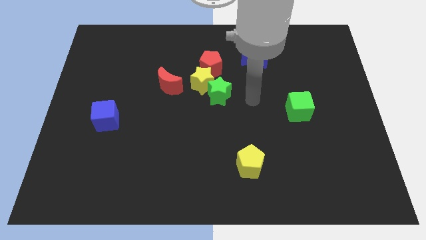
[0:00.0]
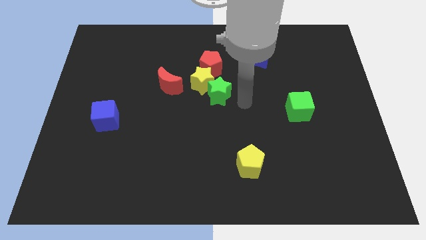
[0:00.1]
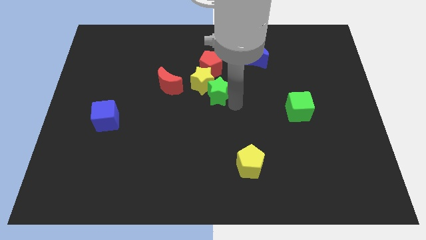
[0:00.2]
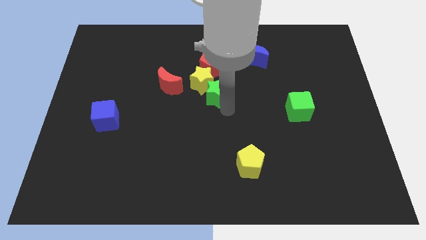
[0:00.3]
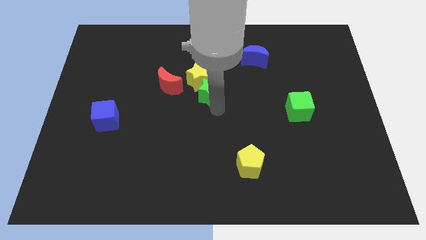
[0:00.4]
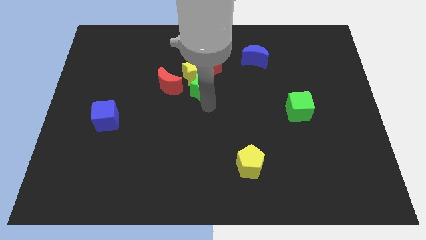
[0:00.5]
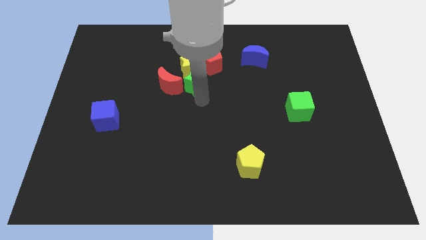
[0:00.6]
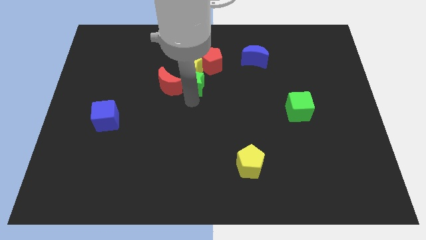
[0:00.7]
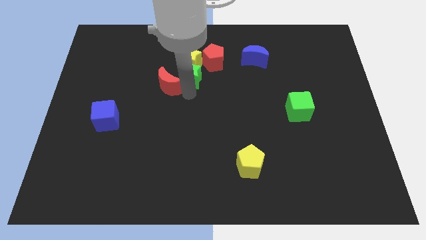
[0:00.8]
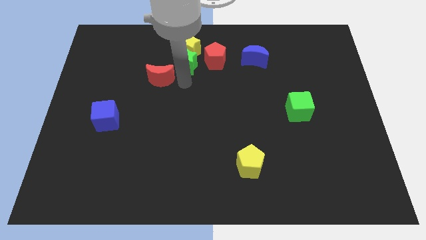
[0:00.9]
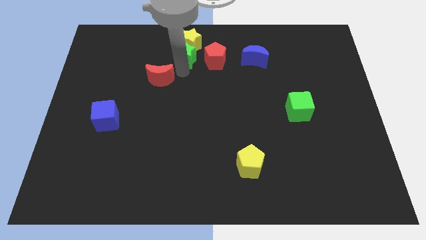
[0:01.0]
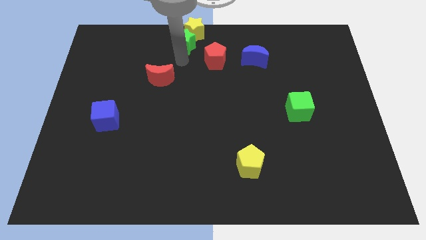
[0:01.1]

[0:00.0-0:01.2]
move the yellow star away from the clump

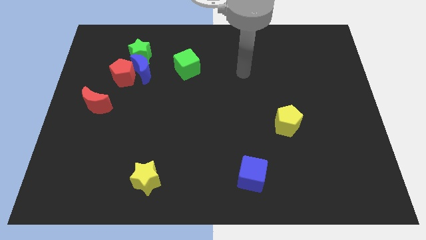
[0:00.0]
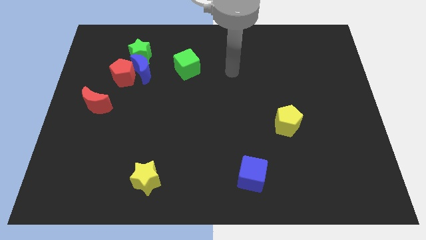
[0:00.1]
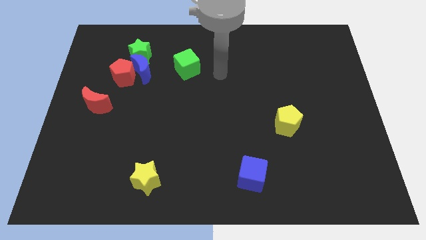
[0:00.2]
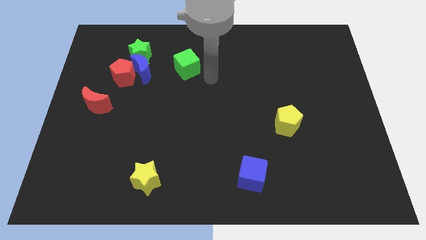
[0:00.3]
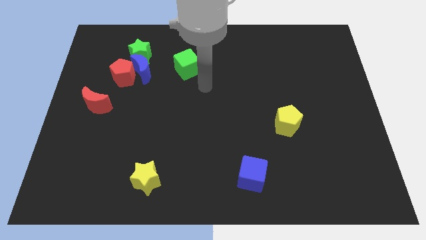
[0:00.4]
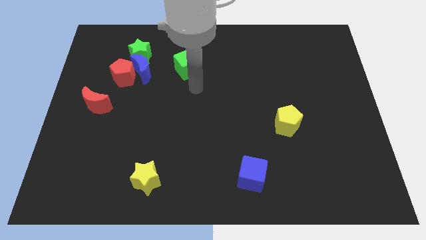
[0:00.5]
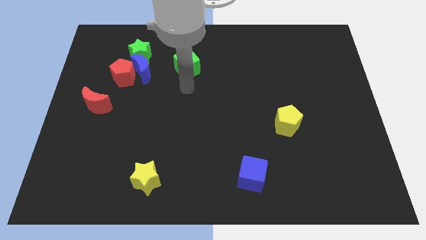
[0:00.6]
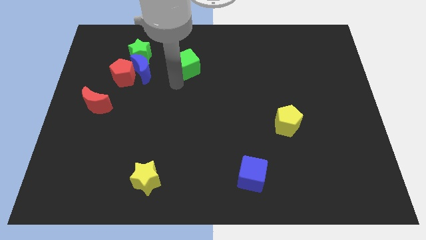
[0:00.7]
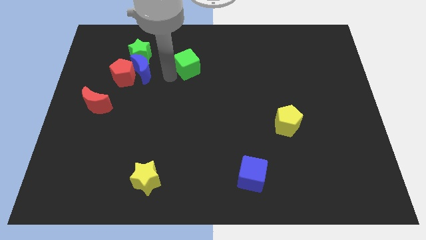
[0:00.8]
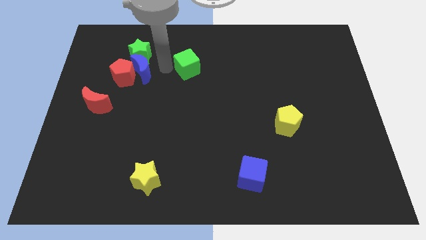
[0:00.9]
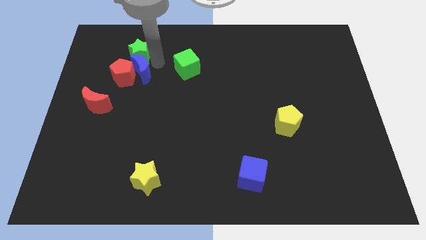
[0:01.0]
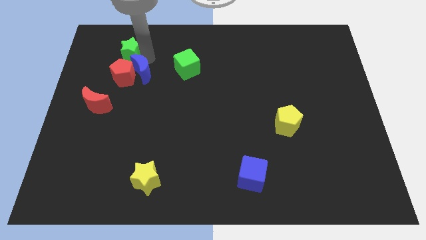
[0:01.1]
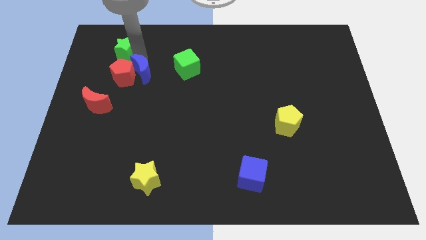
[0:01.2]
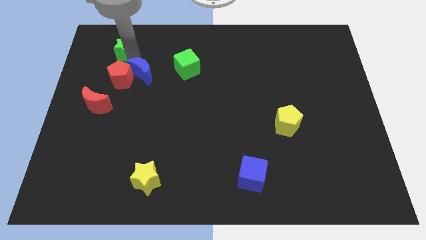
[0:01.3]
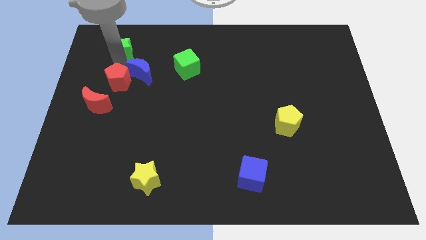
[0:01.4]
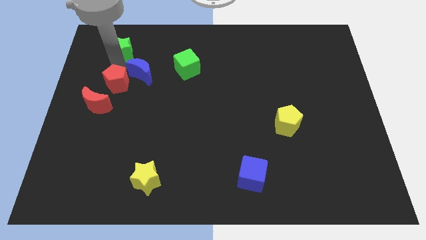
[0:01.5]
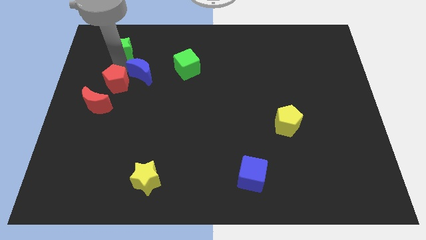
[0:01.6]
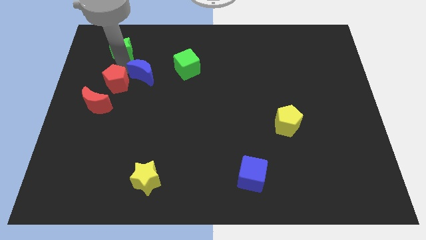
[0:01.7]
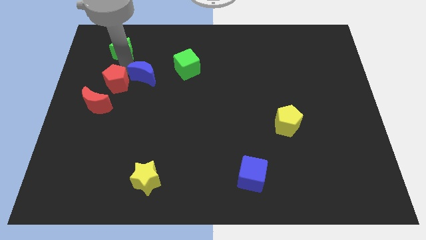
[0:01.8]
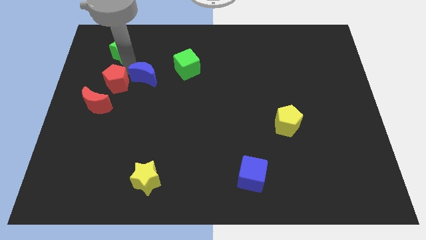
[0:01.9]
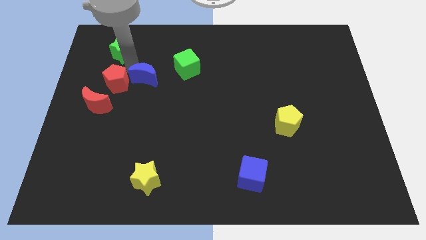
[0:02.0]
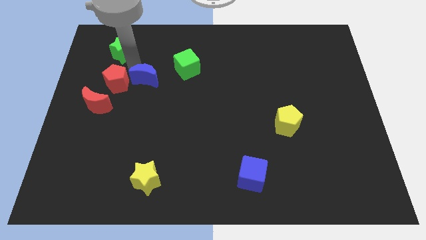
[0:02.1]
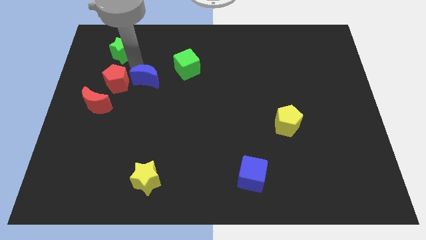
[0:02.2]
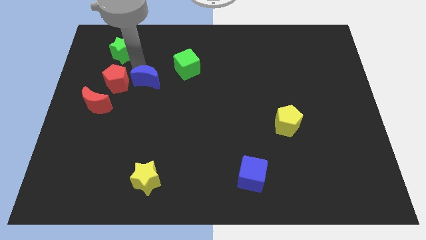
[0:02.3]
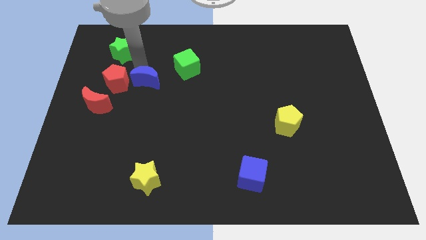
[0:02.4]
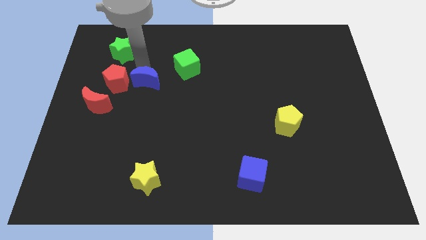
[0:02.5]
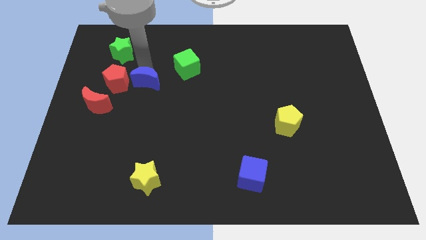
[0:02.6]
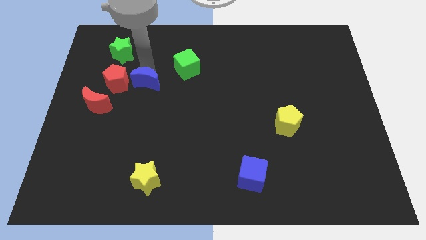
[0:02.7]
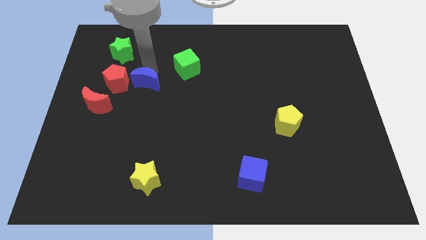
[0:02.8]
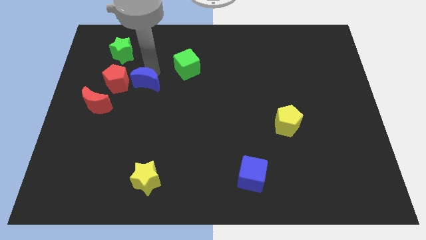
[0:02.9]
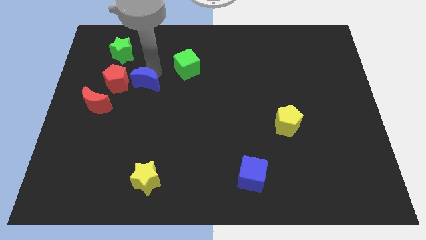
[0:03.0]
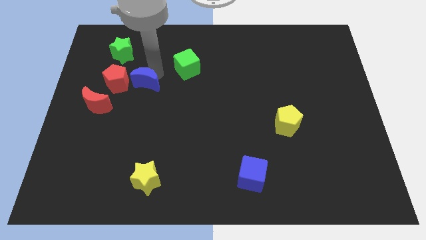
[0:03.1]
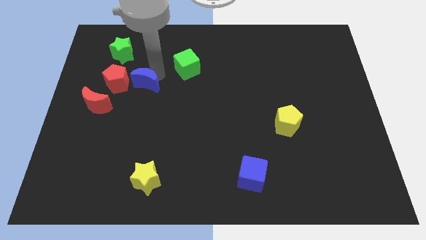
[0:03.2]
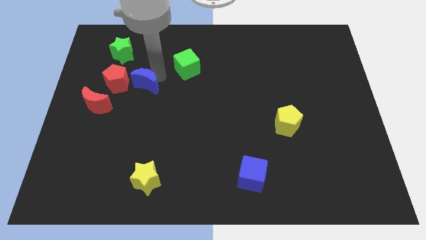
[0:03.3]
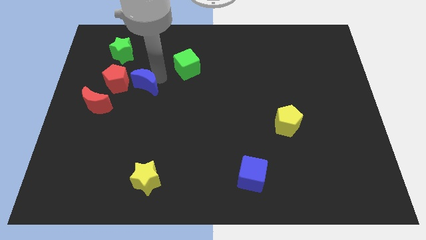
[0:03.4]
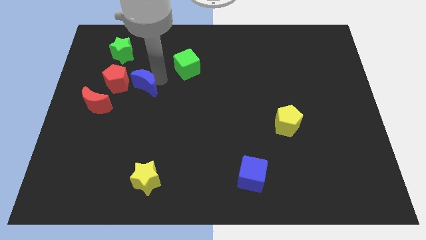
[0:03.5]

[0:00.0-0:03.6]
separate the blue moon from the red pentagon and green star

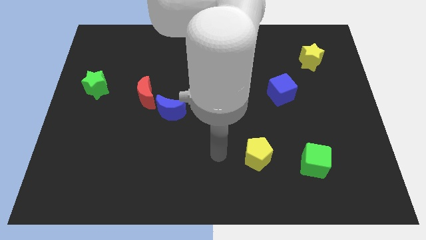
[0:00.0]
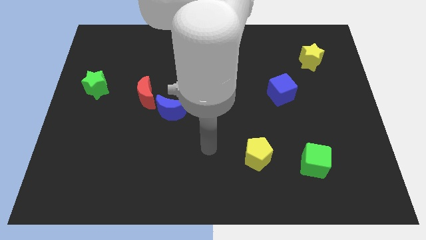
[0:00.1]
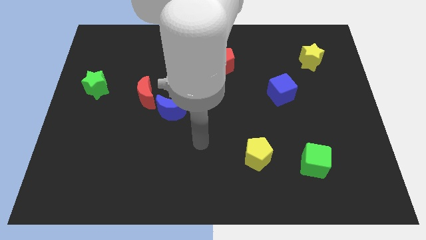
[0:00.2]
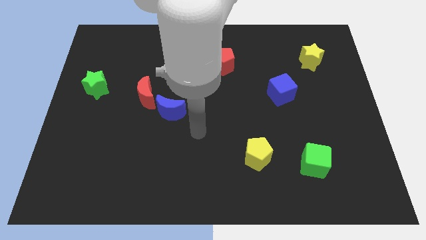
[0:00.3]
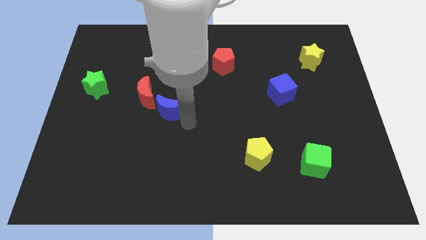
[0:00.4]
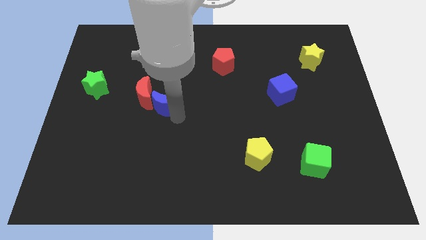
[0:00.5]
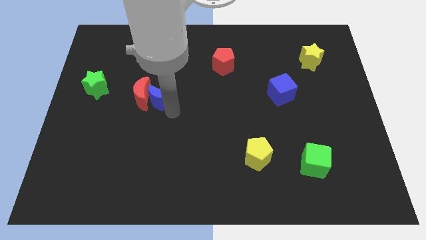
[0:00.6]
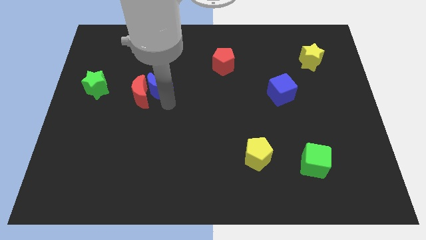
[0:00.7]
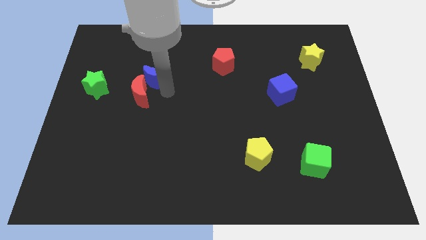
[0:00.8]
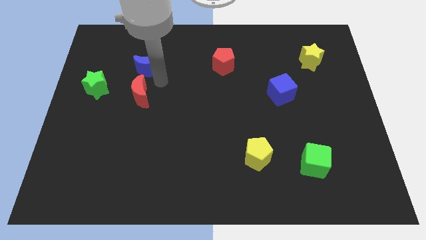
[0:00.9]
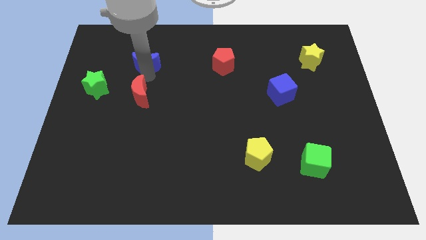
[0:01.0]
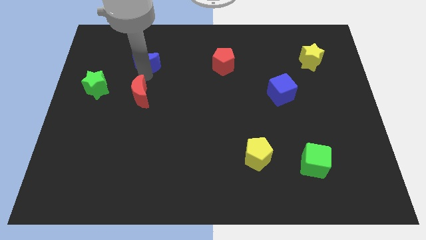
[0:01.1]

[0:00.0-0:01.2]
move the red moon away from the blue moon

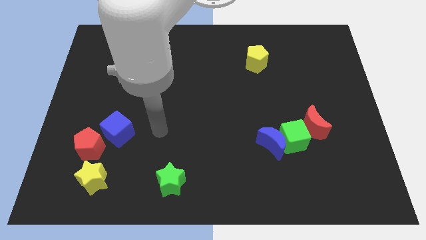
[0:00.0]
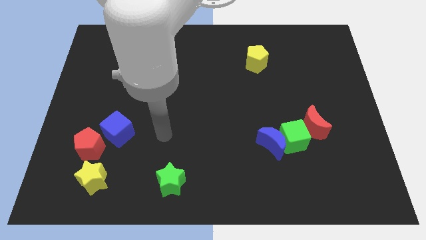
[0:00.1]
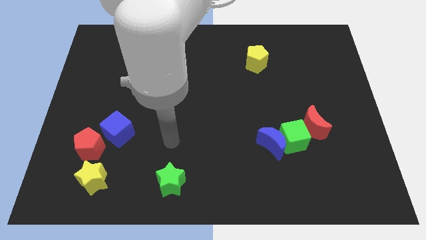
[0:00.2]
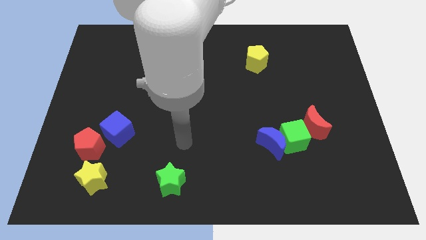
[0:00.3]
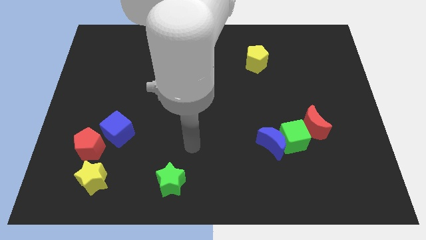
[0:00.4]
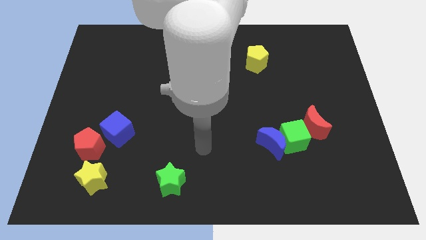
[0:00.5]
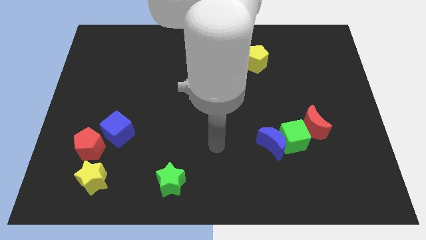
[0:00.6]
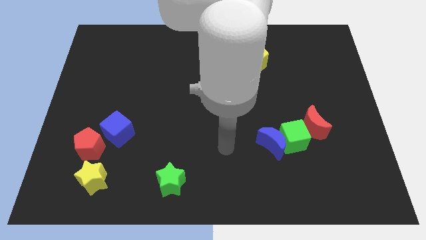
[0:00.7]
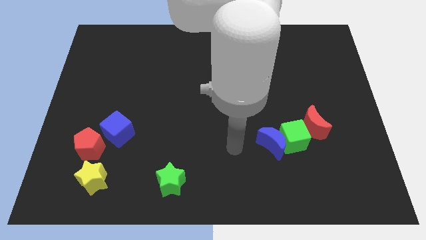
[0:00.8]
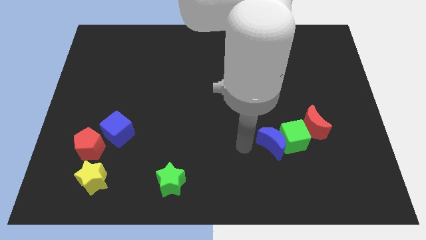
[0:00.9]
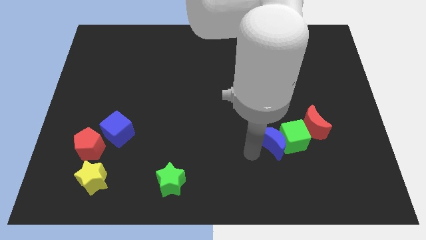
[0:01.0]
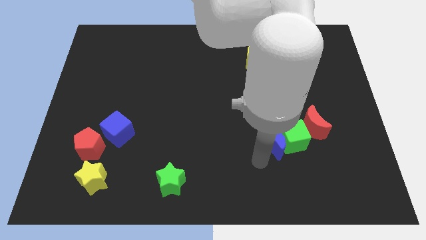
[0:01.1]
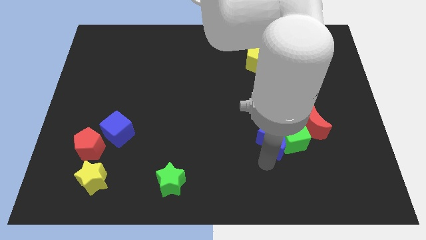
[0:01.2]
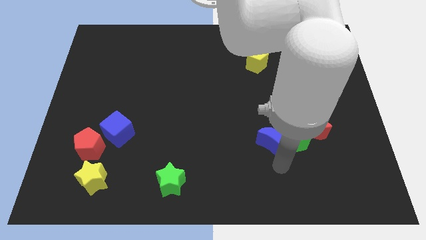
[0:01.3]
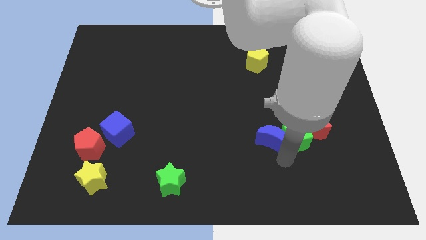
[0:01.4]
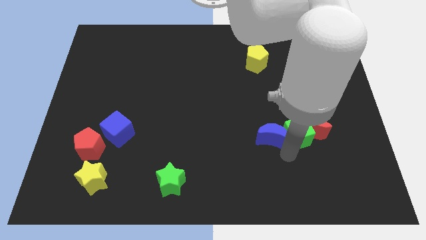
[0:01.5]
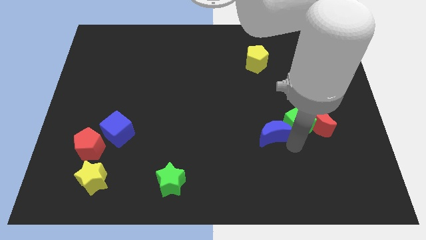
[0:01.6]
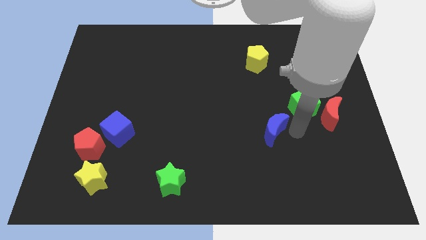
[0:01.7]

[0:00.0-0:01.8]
pull the blue moon apart from the green cube

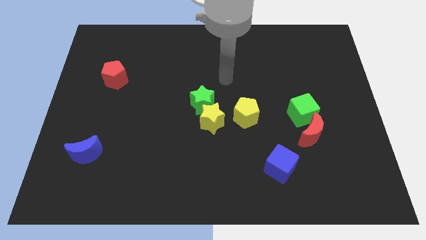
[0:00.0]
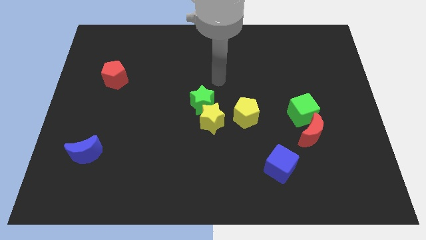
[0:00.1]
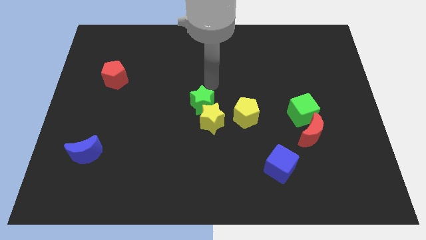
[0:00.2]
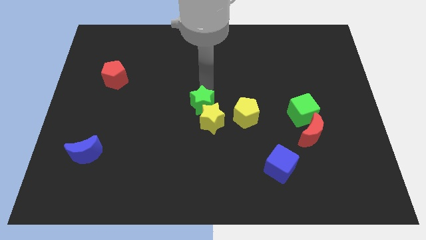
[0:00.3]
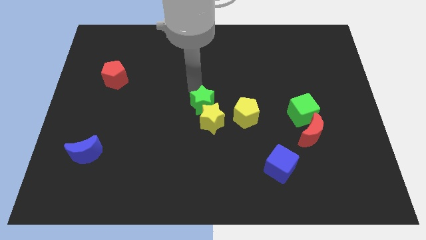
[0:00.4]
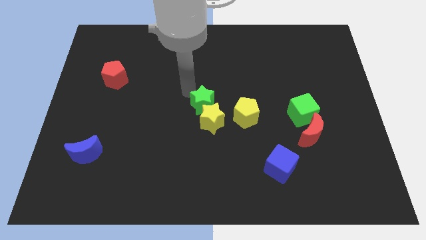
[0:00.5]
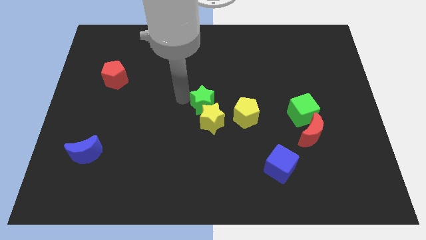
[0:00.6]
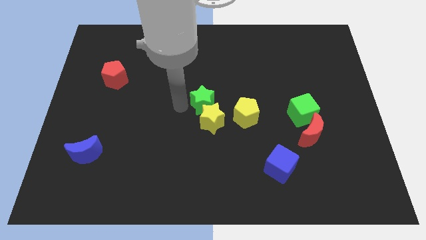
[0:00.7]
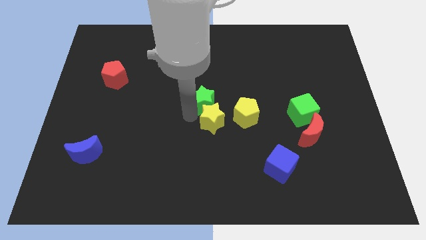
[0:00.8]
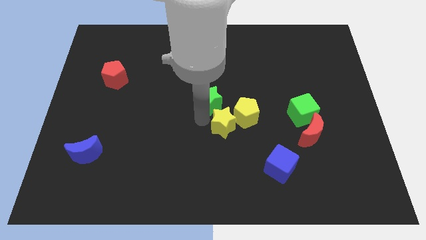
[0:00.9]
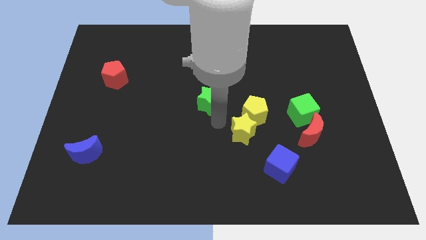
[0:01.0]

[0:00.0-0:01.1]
pull the green star apart from the yellow star

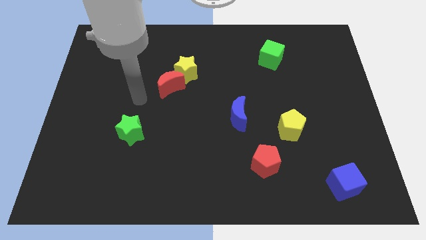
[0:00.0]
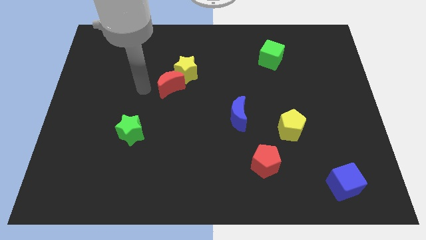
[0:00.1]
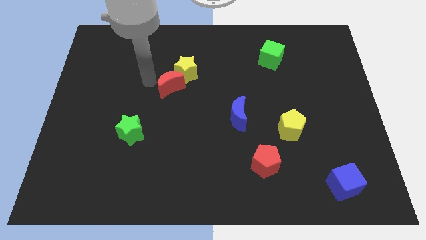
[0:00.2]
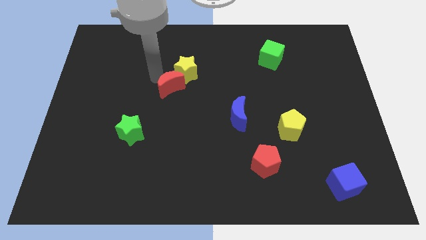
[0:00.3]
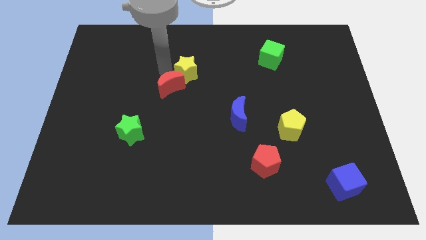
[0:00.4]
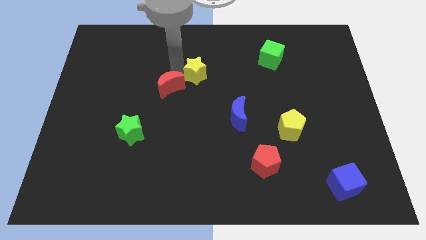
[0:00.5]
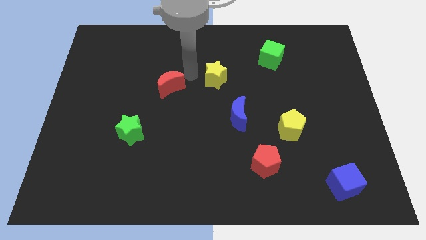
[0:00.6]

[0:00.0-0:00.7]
pull the red moon apart from the yellow star
